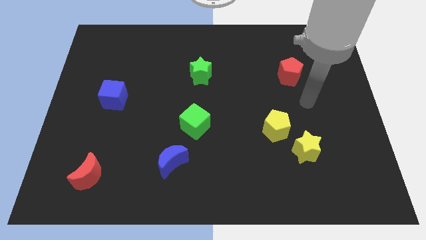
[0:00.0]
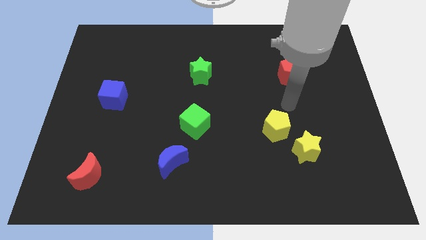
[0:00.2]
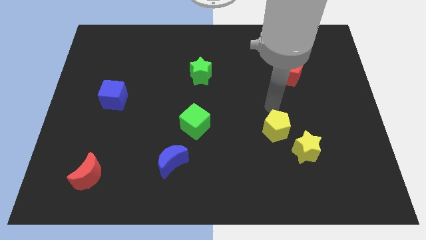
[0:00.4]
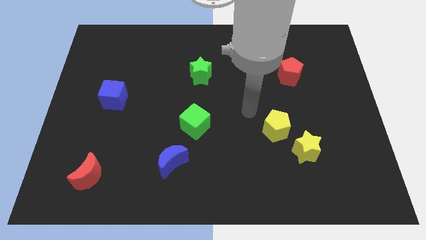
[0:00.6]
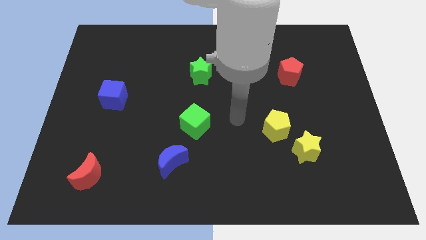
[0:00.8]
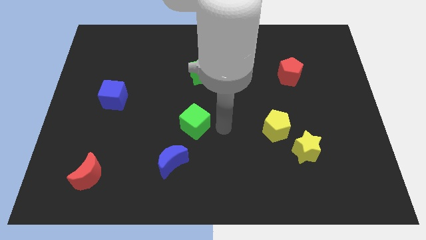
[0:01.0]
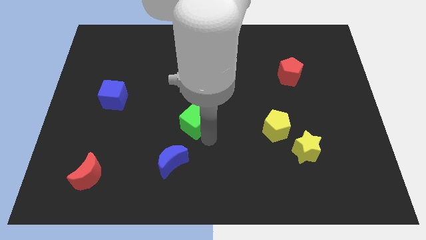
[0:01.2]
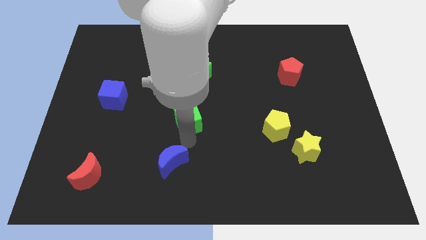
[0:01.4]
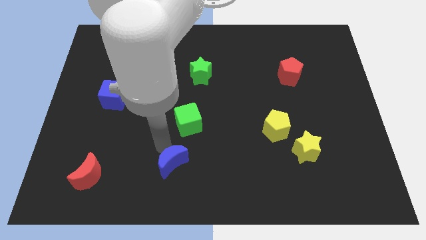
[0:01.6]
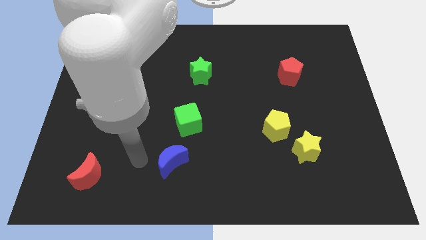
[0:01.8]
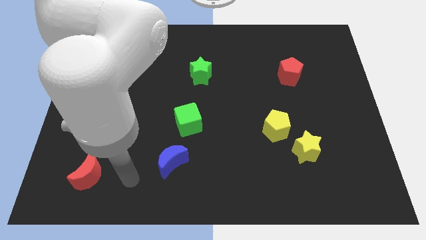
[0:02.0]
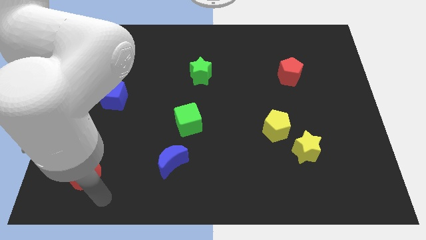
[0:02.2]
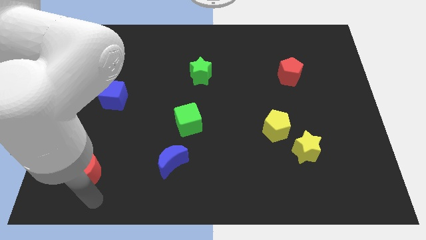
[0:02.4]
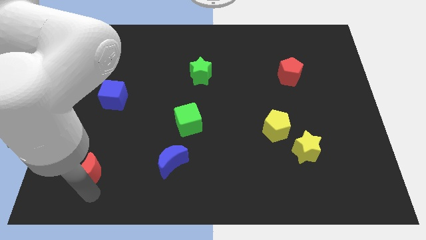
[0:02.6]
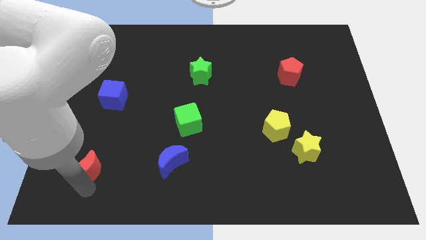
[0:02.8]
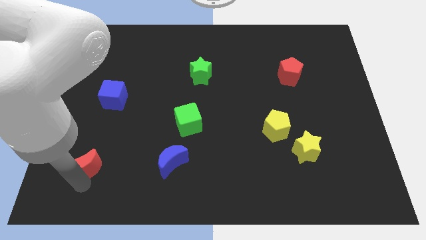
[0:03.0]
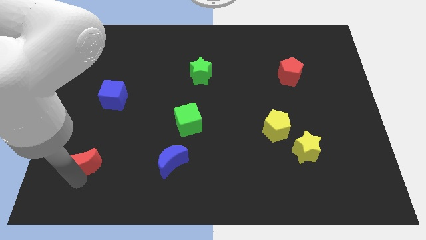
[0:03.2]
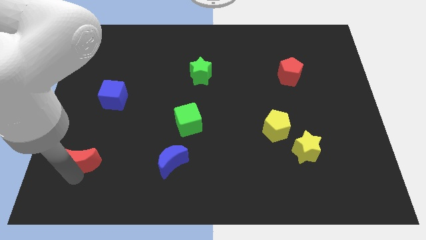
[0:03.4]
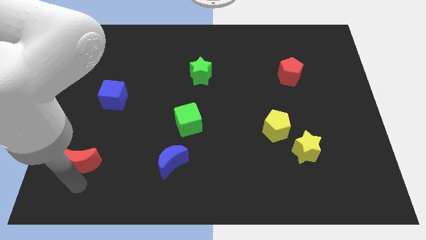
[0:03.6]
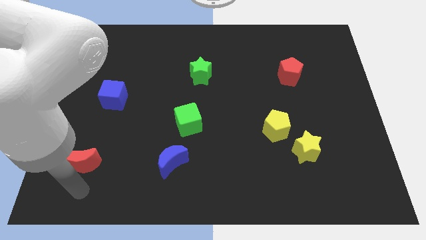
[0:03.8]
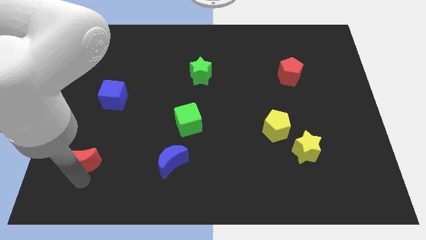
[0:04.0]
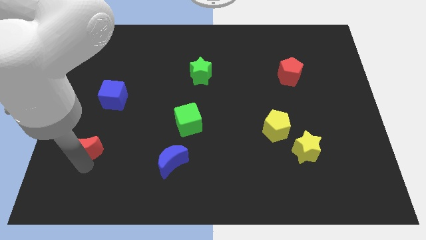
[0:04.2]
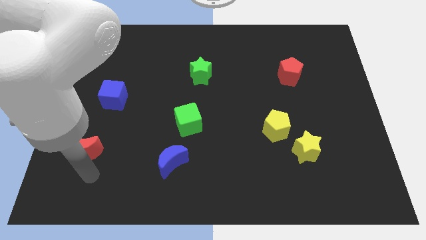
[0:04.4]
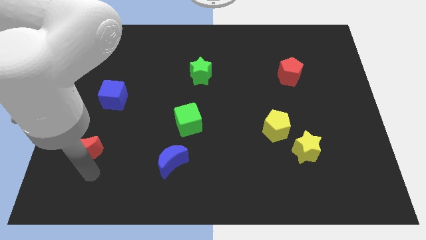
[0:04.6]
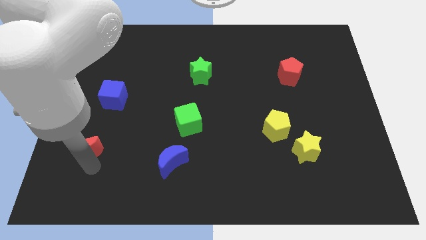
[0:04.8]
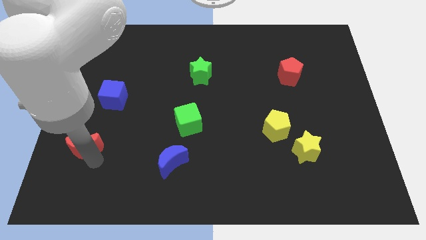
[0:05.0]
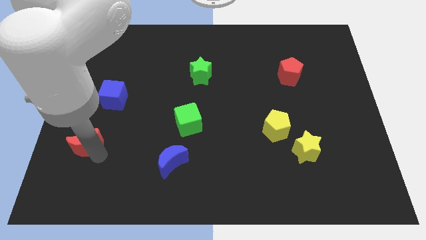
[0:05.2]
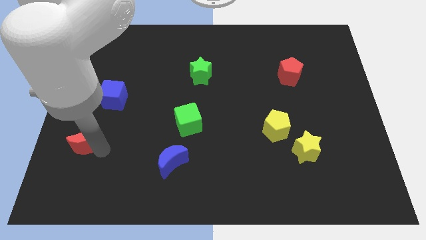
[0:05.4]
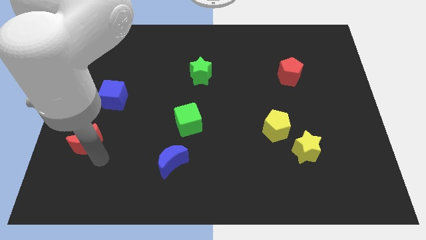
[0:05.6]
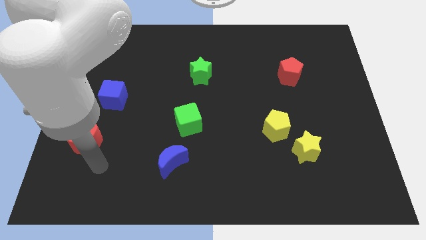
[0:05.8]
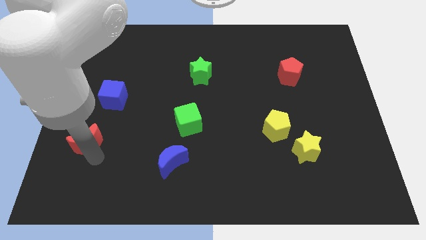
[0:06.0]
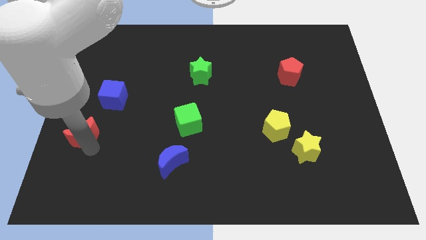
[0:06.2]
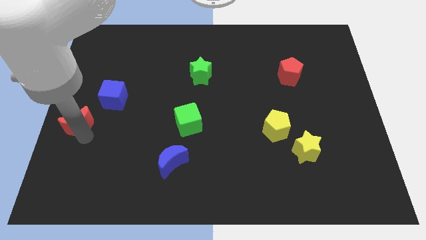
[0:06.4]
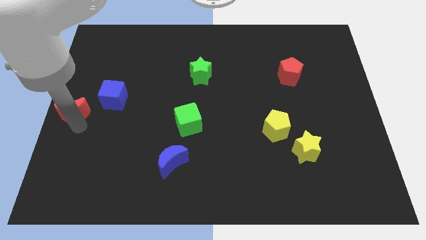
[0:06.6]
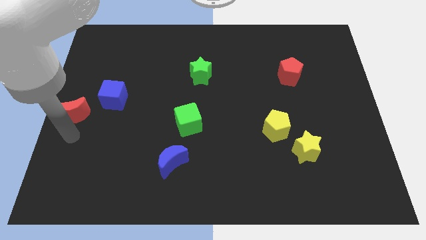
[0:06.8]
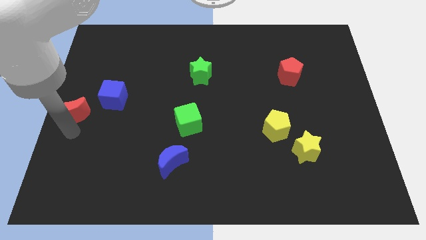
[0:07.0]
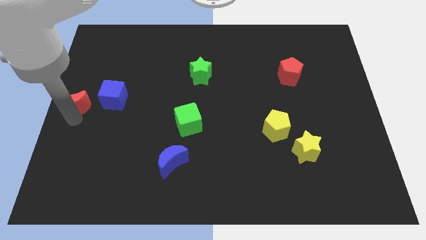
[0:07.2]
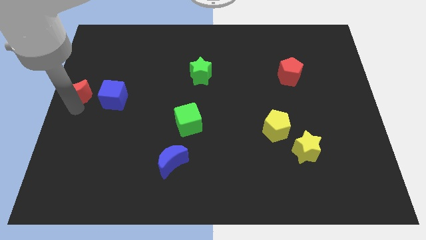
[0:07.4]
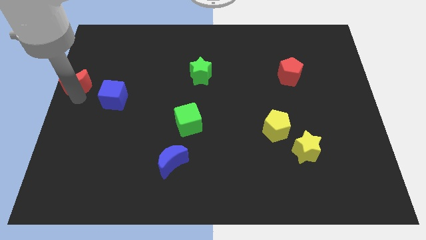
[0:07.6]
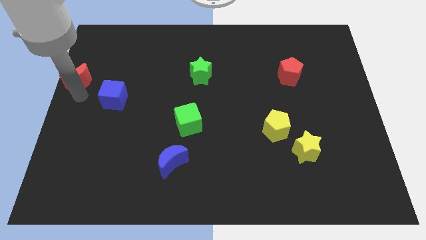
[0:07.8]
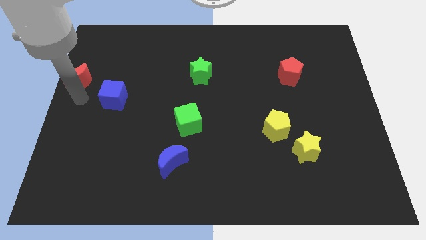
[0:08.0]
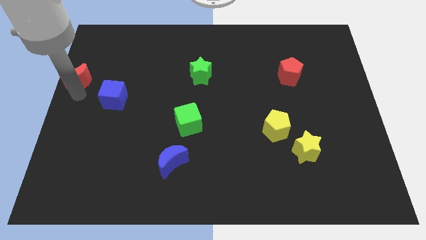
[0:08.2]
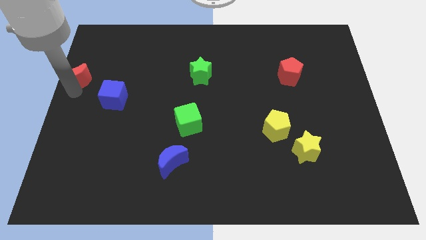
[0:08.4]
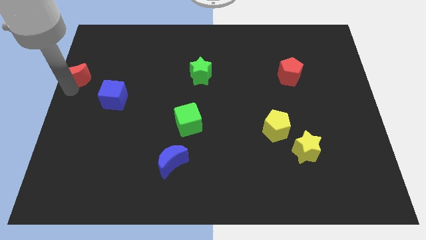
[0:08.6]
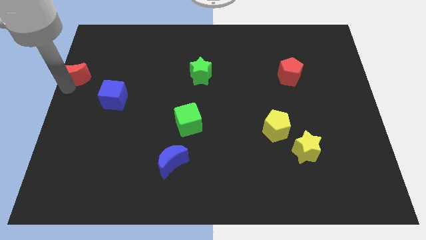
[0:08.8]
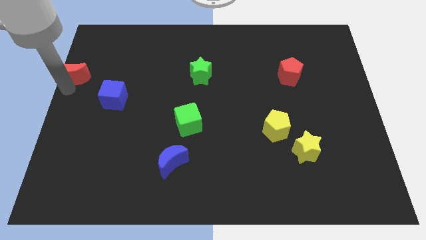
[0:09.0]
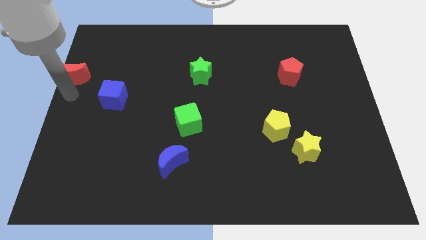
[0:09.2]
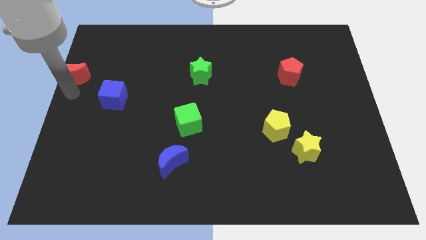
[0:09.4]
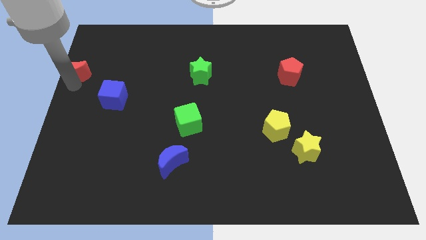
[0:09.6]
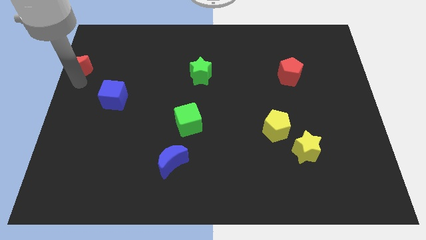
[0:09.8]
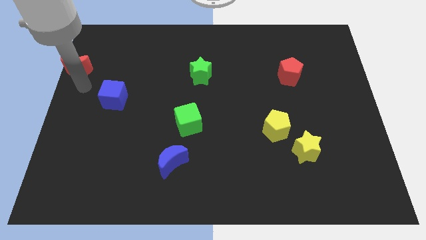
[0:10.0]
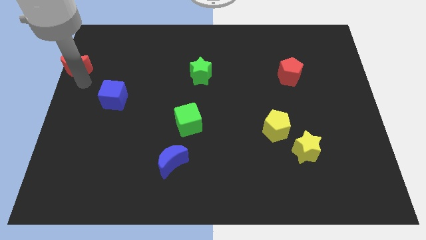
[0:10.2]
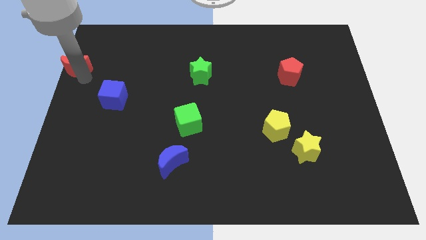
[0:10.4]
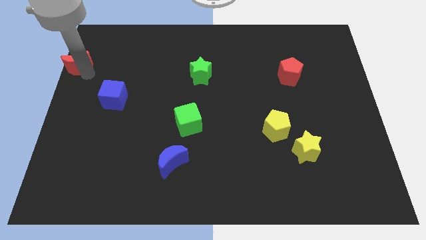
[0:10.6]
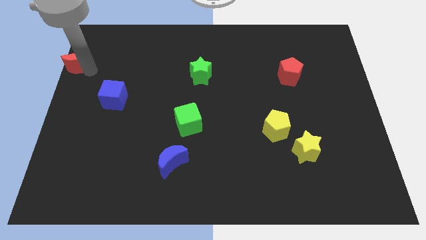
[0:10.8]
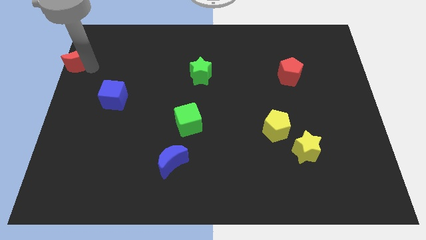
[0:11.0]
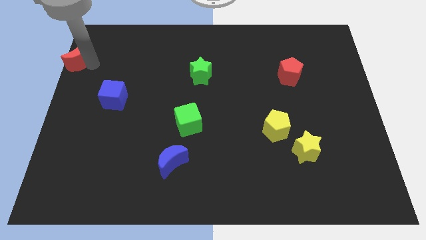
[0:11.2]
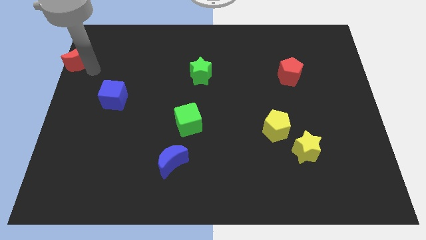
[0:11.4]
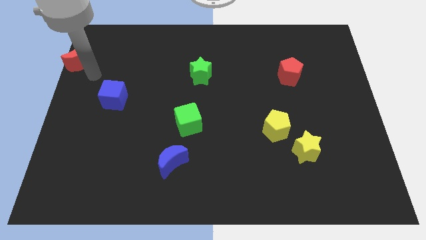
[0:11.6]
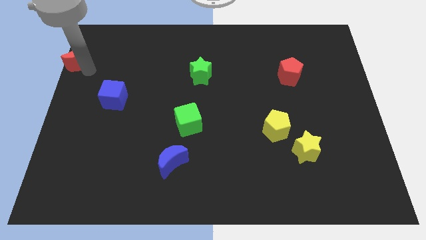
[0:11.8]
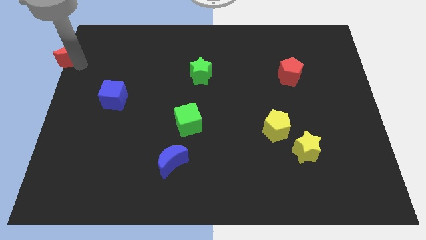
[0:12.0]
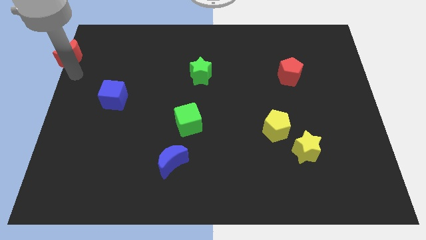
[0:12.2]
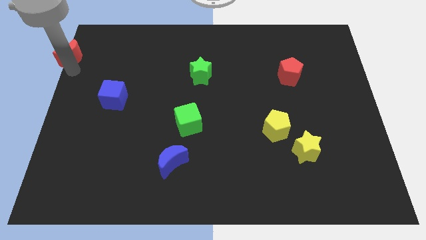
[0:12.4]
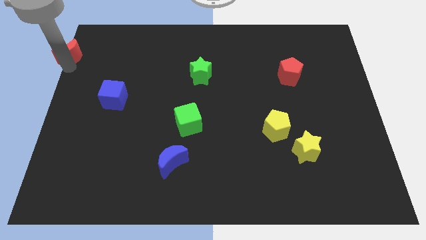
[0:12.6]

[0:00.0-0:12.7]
push the red moon to the top left of the board

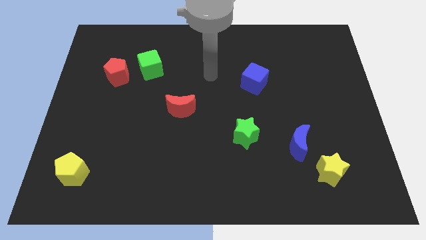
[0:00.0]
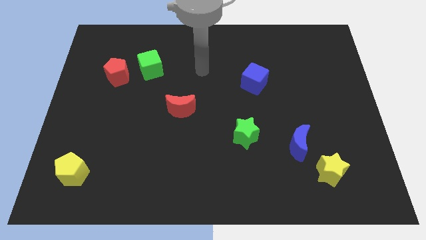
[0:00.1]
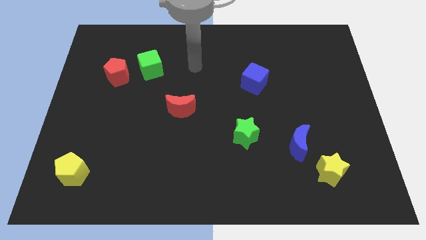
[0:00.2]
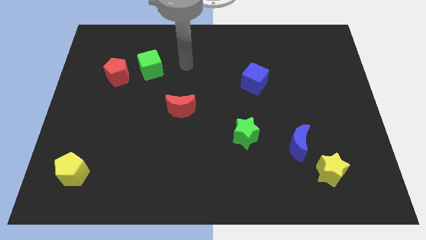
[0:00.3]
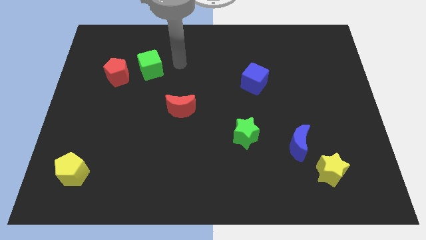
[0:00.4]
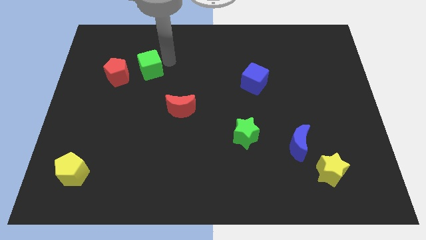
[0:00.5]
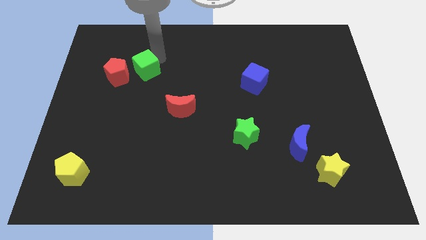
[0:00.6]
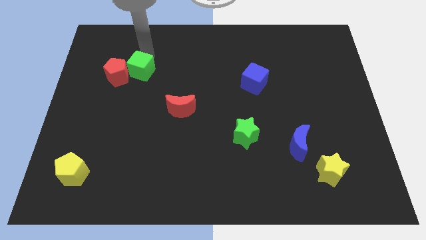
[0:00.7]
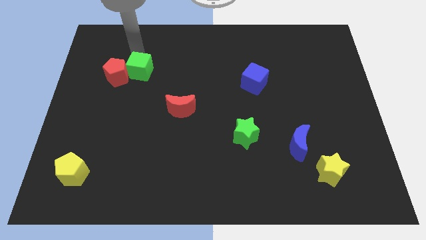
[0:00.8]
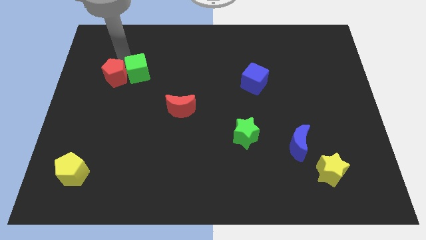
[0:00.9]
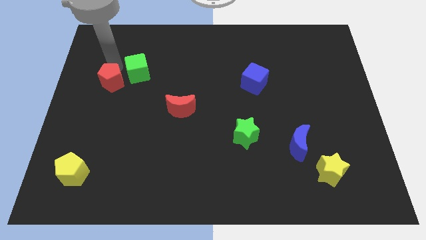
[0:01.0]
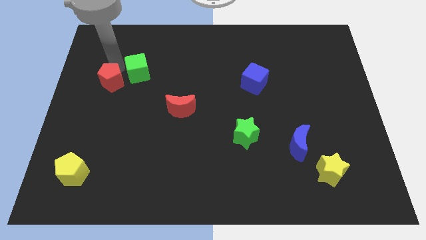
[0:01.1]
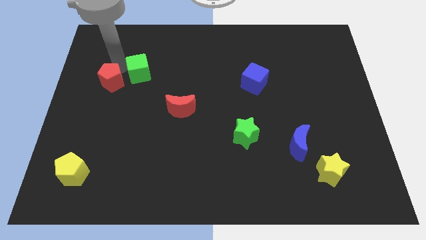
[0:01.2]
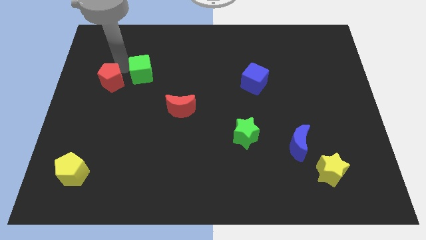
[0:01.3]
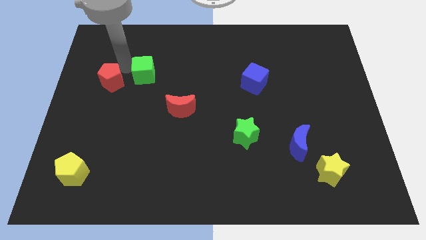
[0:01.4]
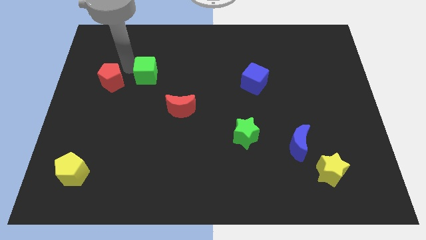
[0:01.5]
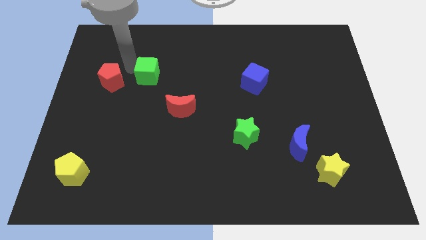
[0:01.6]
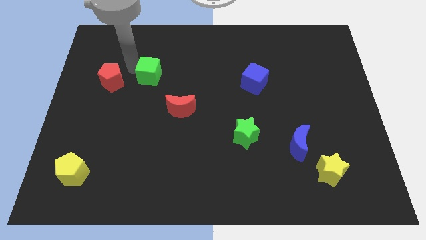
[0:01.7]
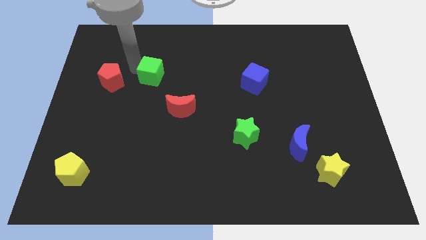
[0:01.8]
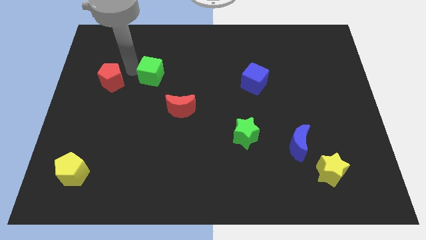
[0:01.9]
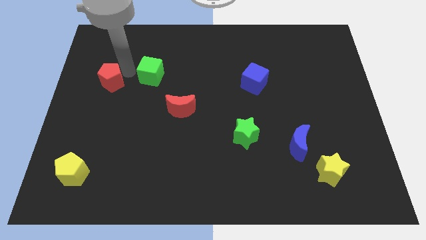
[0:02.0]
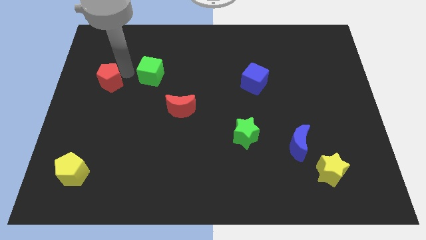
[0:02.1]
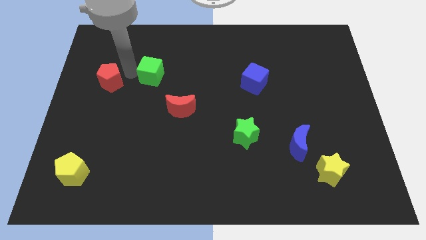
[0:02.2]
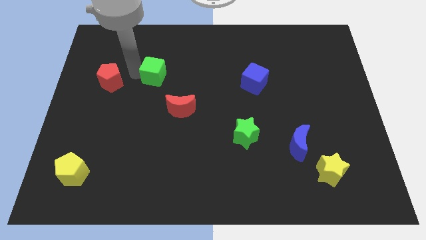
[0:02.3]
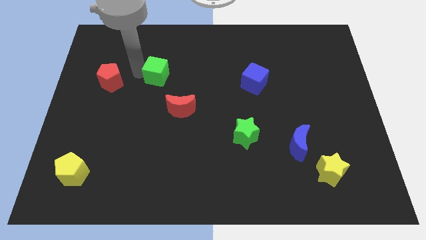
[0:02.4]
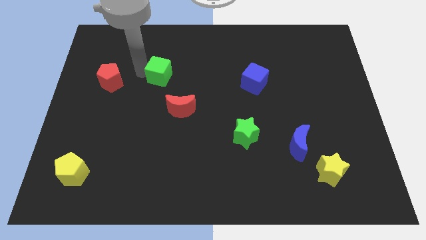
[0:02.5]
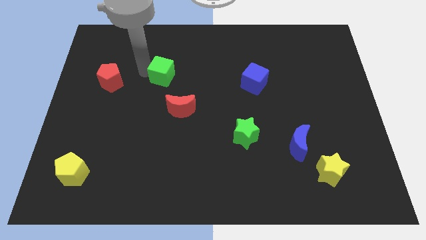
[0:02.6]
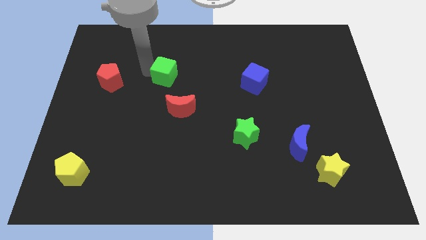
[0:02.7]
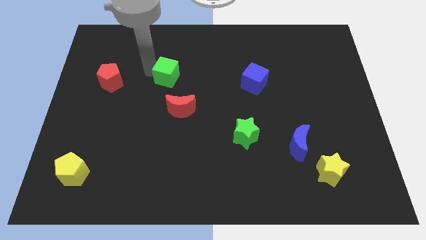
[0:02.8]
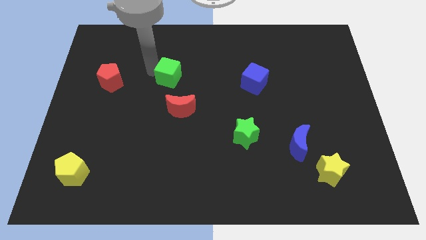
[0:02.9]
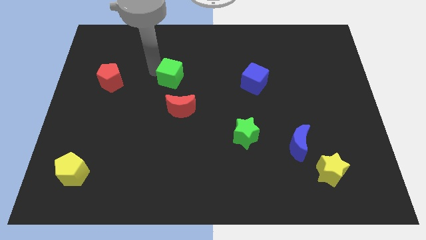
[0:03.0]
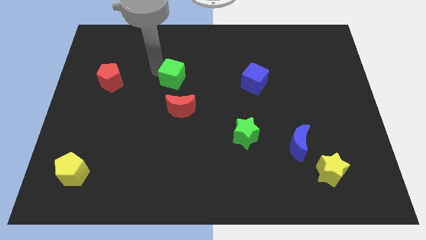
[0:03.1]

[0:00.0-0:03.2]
move the green cube to the middle
